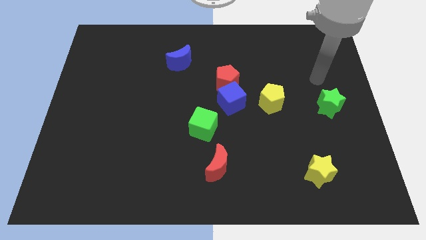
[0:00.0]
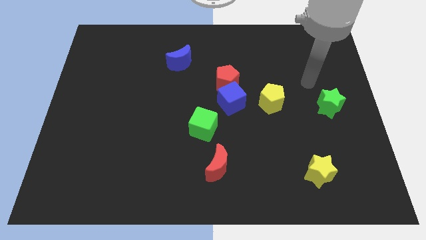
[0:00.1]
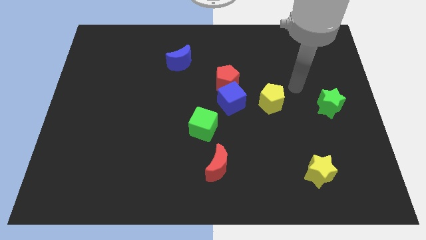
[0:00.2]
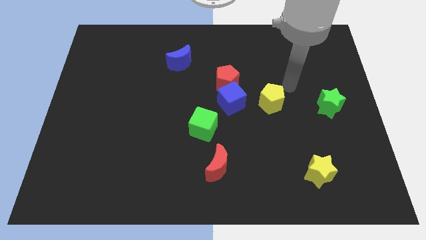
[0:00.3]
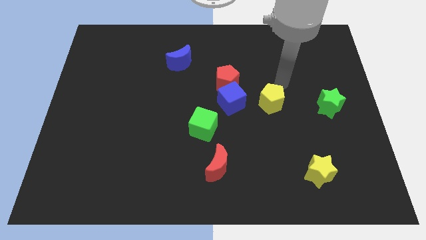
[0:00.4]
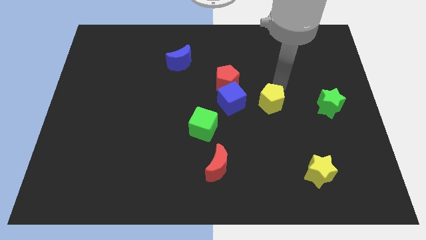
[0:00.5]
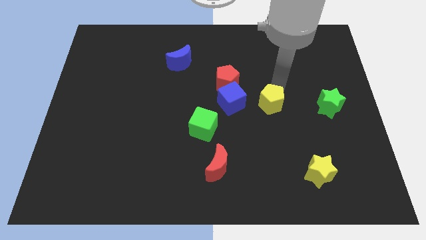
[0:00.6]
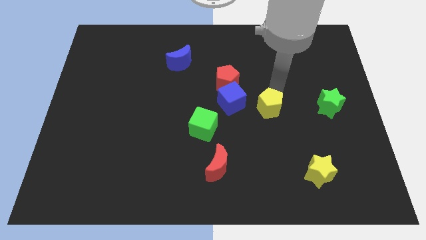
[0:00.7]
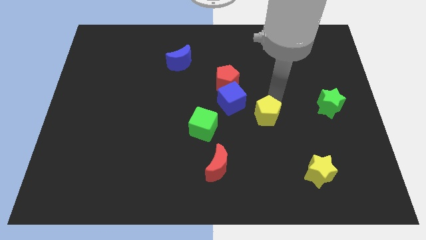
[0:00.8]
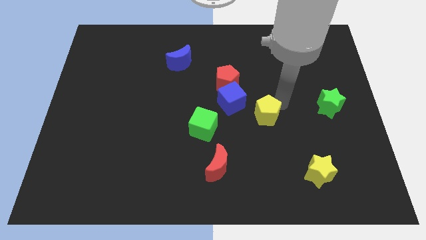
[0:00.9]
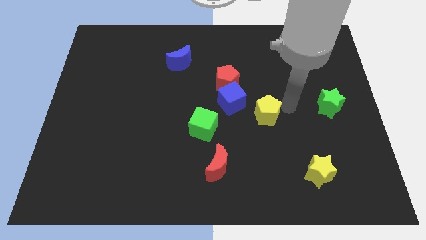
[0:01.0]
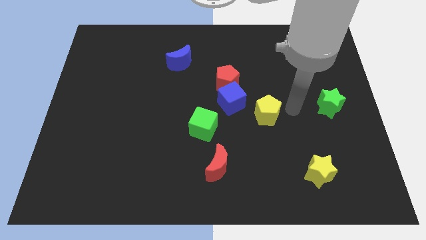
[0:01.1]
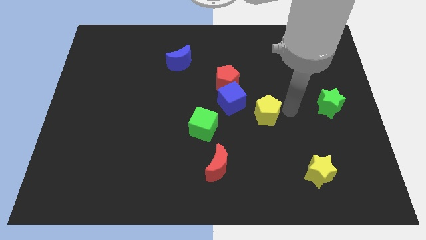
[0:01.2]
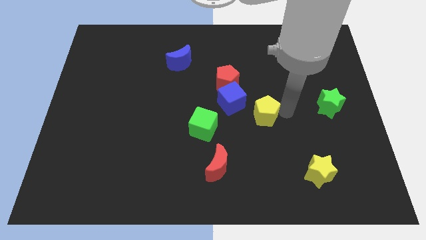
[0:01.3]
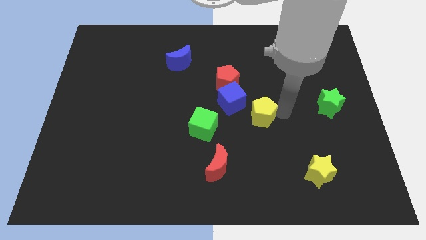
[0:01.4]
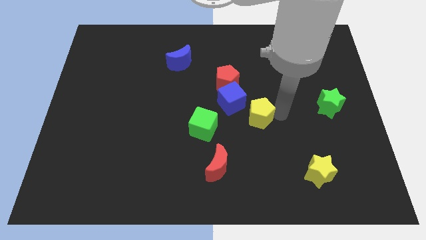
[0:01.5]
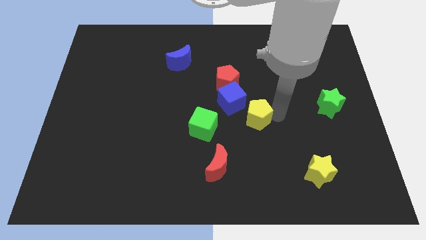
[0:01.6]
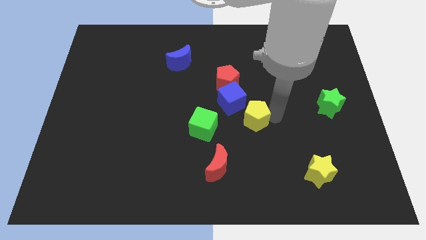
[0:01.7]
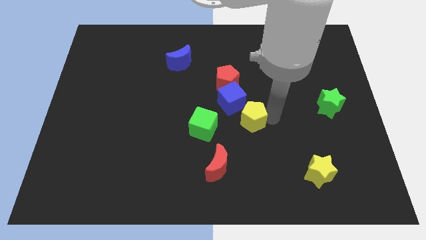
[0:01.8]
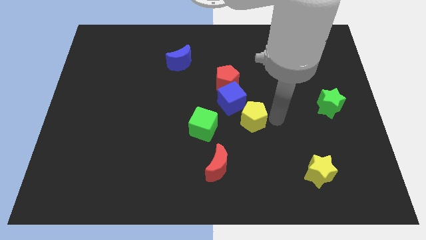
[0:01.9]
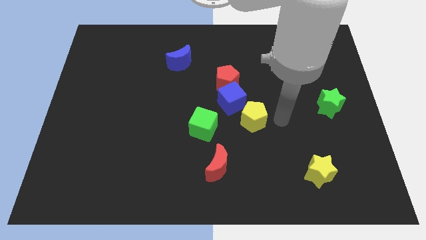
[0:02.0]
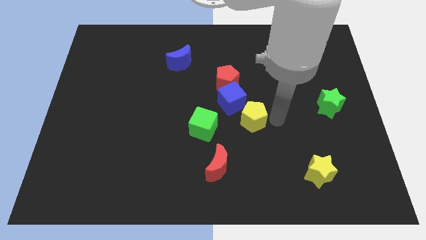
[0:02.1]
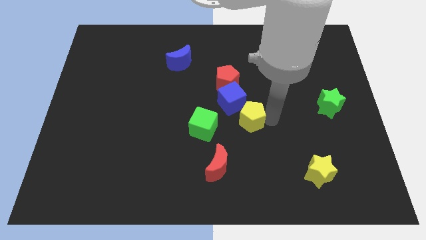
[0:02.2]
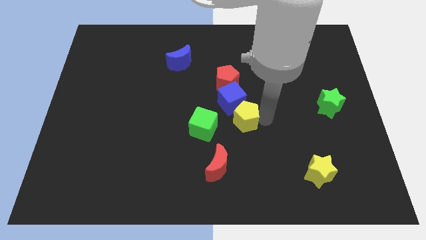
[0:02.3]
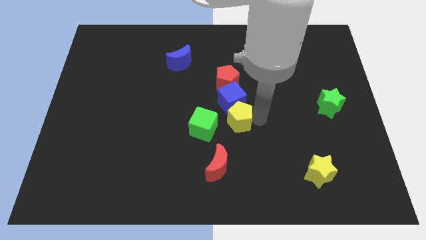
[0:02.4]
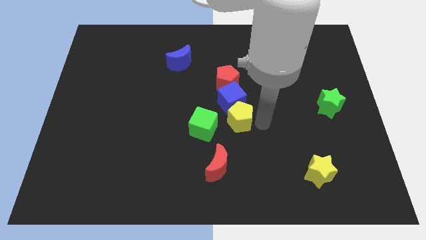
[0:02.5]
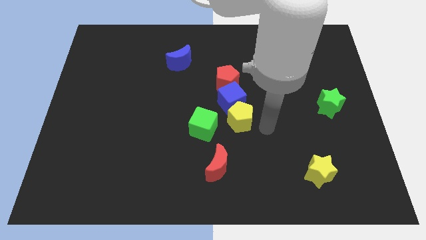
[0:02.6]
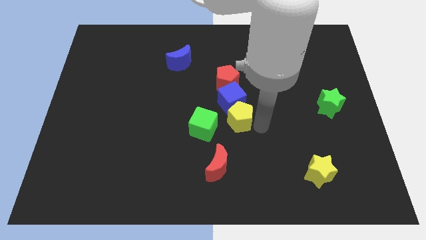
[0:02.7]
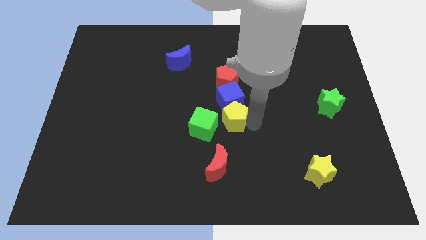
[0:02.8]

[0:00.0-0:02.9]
slightly push the yellow pentagon to the left

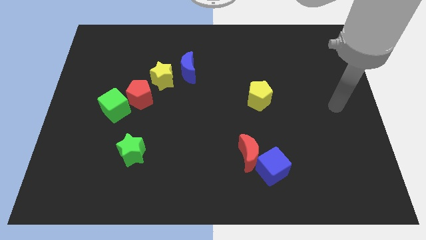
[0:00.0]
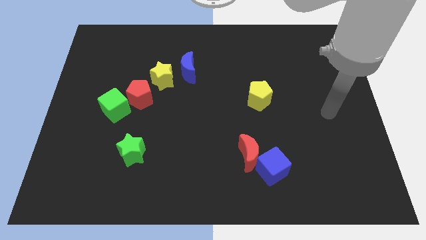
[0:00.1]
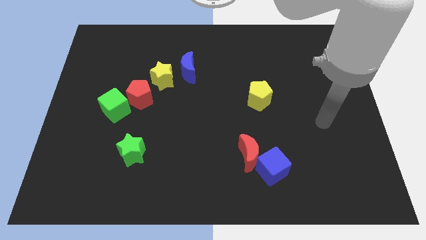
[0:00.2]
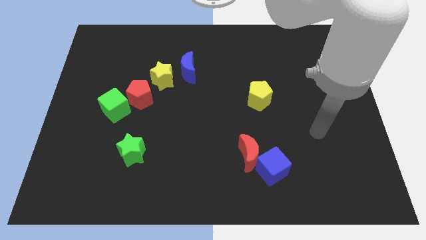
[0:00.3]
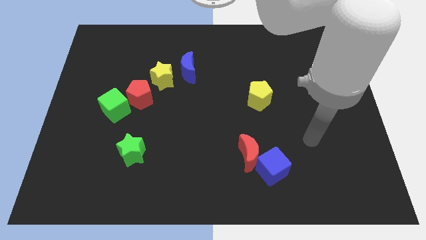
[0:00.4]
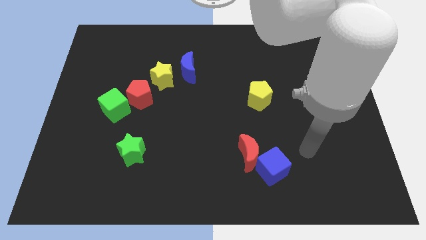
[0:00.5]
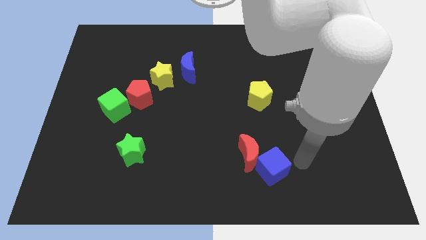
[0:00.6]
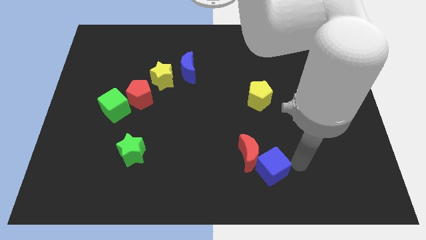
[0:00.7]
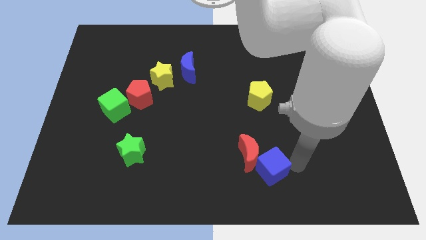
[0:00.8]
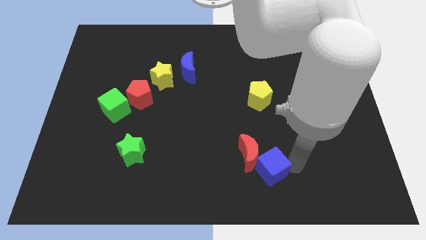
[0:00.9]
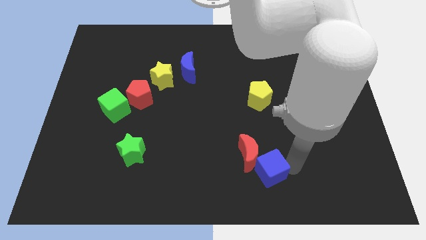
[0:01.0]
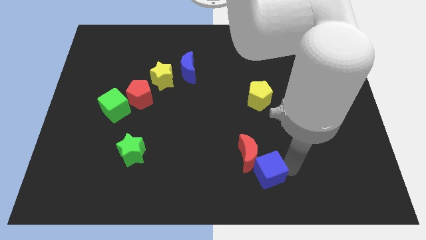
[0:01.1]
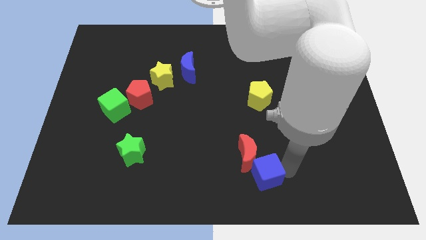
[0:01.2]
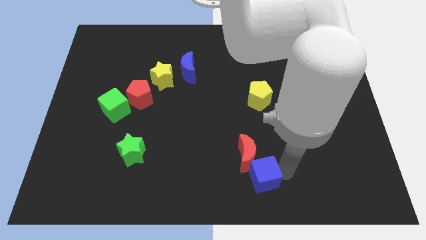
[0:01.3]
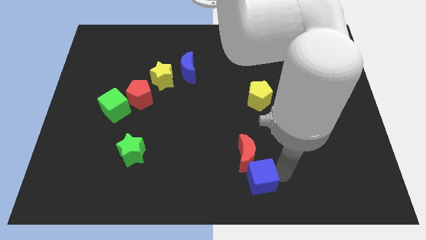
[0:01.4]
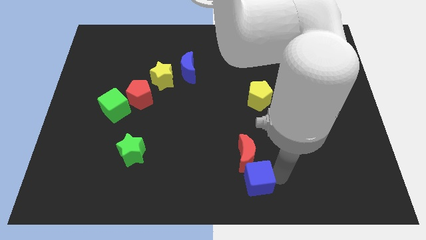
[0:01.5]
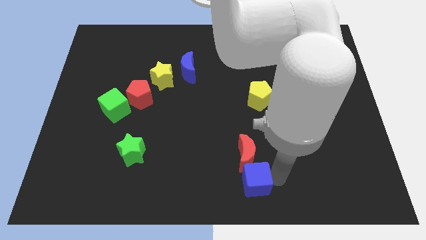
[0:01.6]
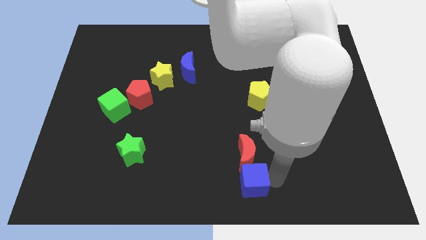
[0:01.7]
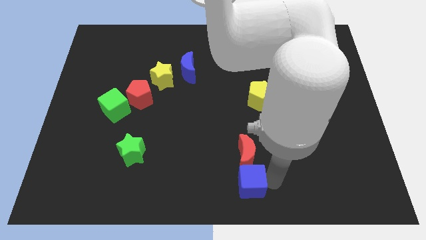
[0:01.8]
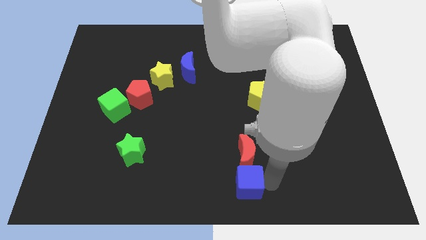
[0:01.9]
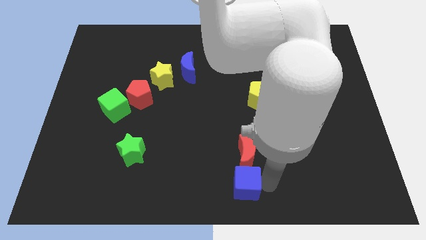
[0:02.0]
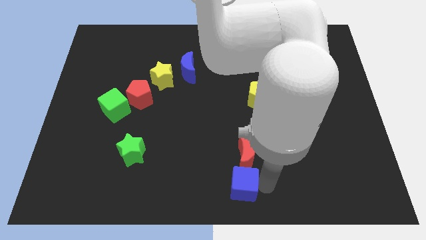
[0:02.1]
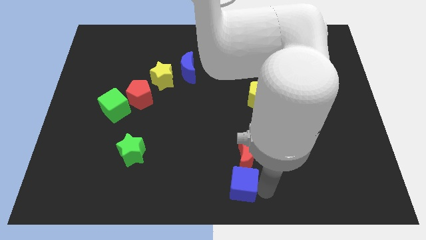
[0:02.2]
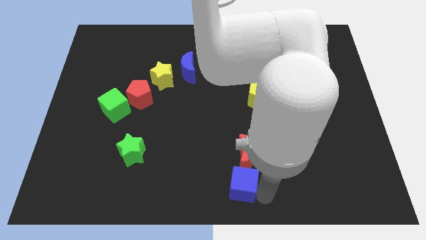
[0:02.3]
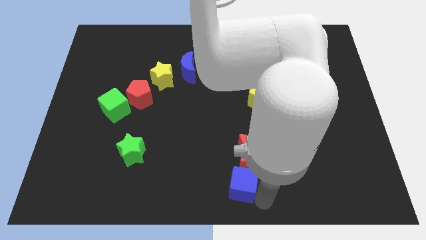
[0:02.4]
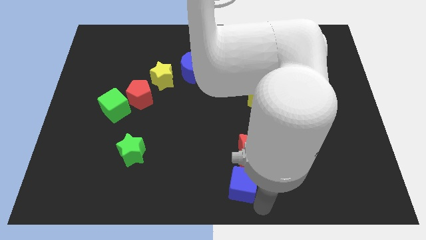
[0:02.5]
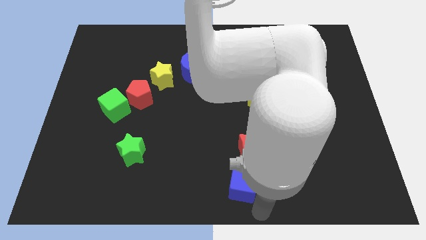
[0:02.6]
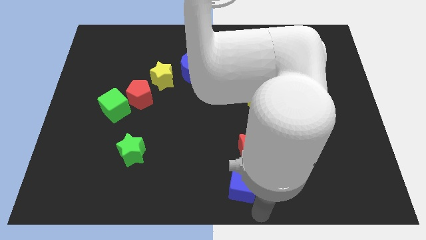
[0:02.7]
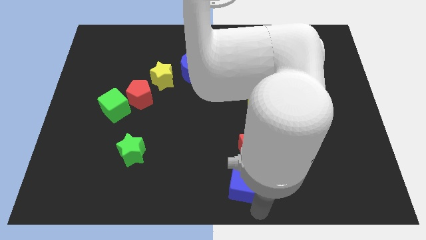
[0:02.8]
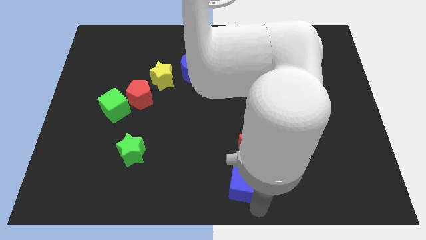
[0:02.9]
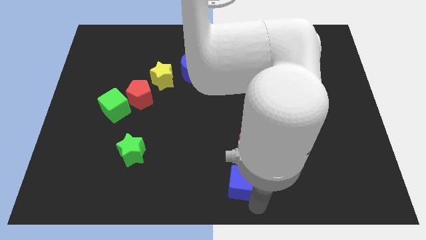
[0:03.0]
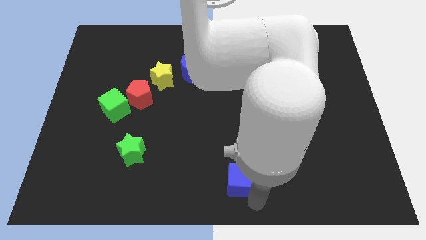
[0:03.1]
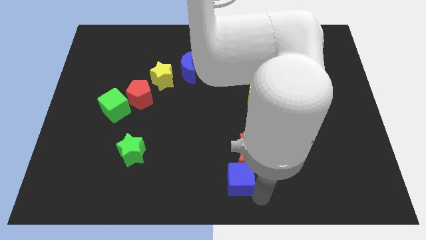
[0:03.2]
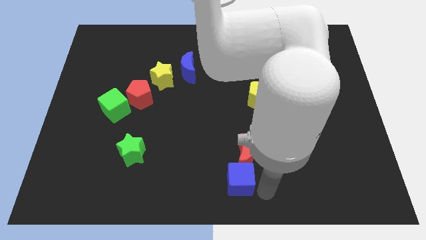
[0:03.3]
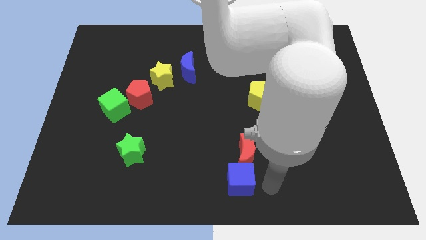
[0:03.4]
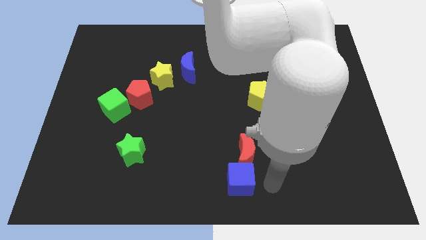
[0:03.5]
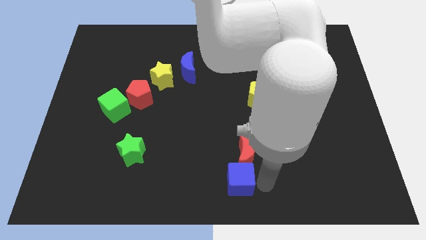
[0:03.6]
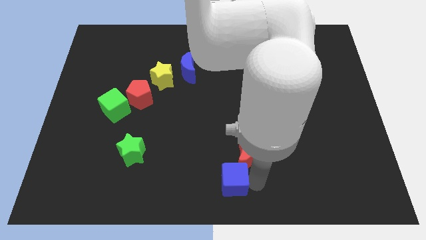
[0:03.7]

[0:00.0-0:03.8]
push the blue cube a little bit left

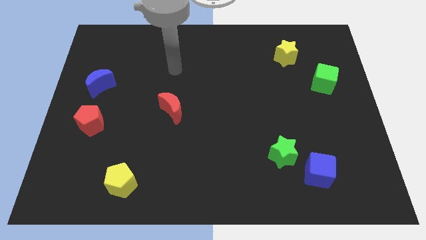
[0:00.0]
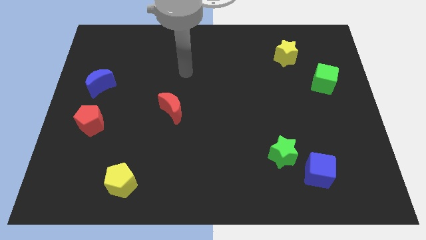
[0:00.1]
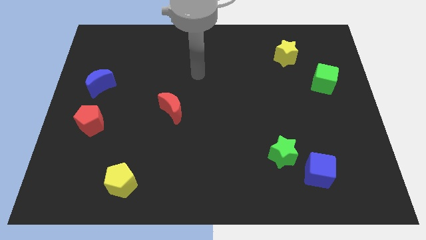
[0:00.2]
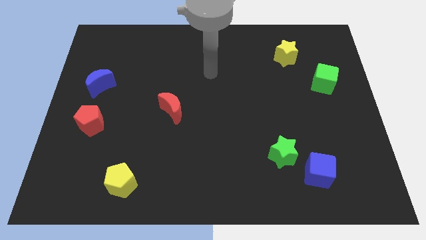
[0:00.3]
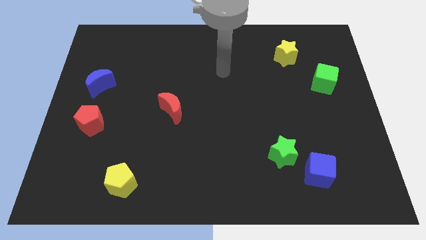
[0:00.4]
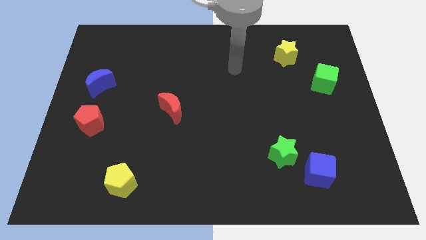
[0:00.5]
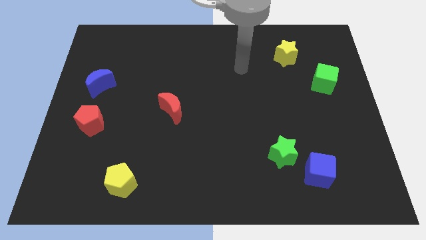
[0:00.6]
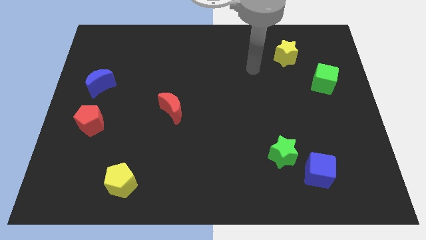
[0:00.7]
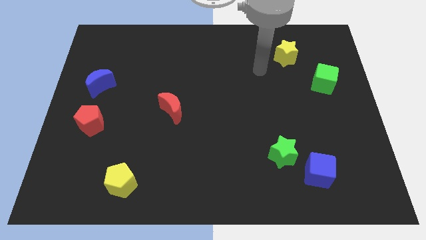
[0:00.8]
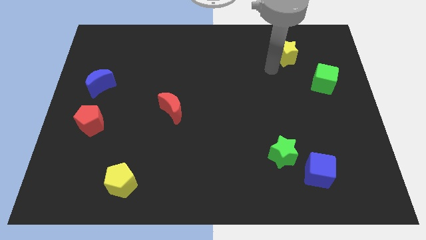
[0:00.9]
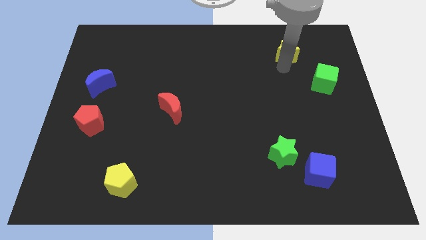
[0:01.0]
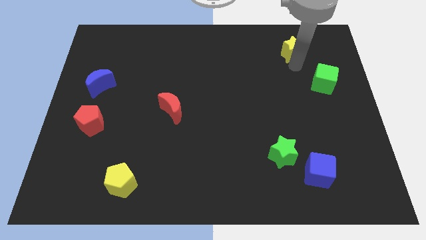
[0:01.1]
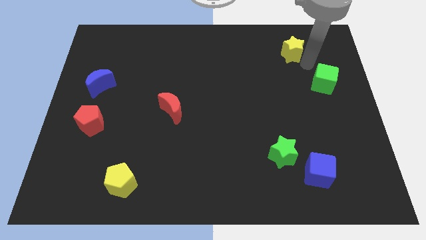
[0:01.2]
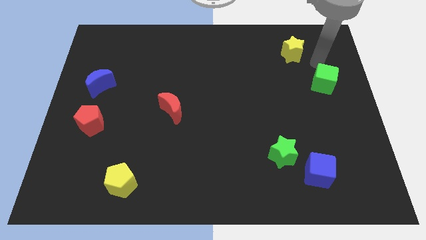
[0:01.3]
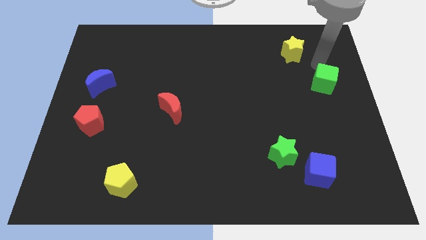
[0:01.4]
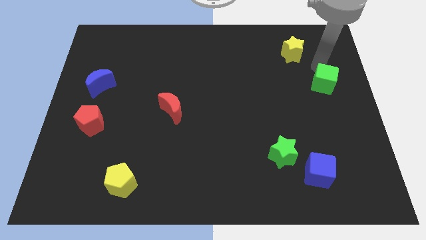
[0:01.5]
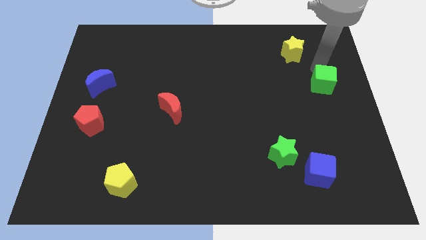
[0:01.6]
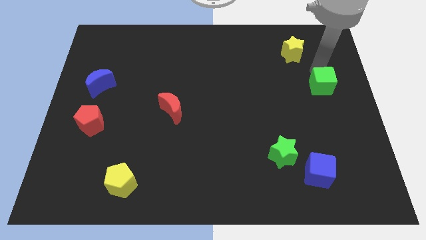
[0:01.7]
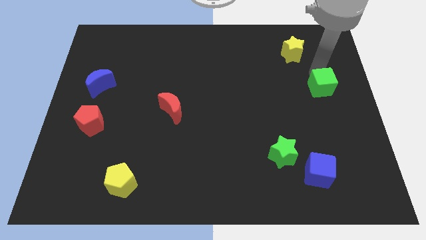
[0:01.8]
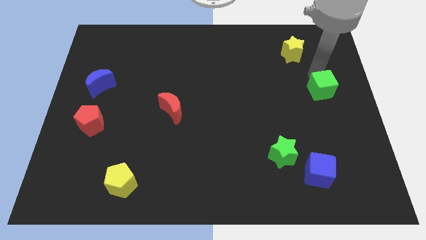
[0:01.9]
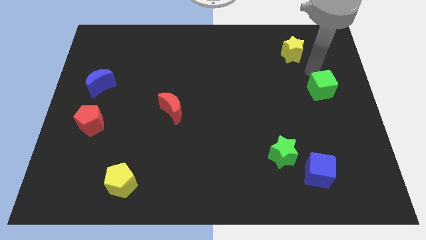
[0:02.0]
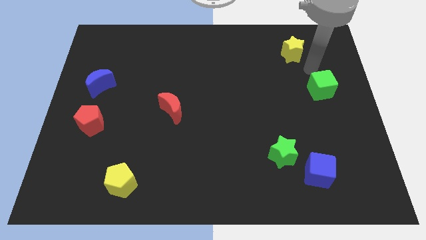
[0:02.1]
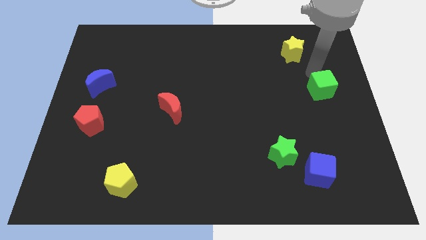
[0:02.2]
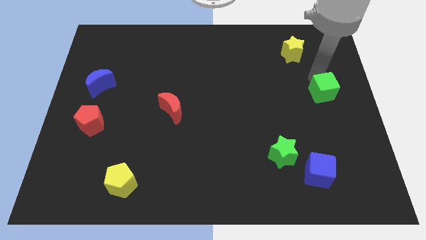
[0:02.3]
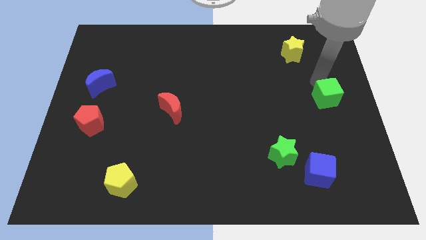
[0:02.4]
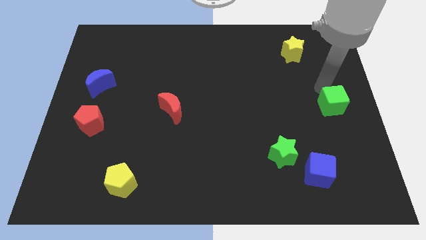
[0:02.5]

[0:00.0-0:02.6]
slide the green cube downwards somewhat
